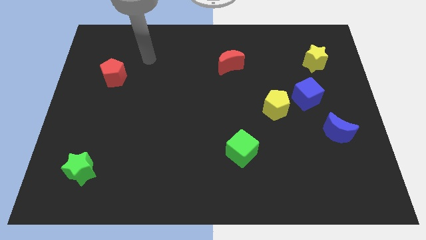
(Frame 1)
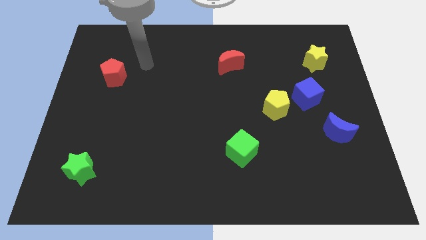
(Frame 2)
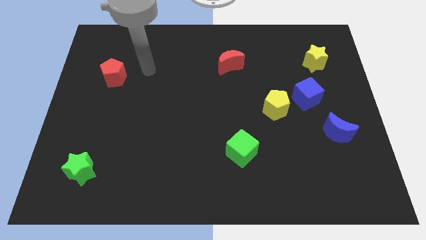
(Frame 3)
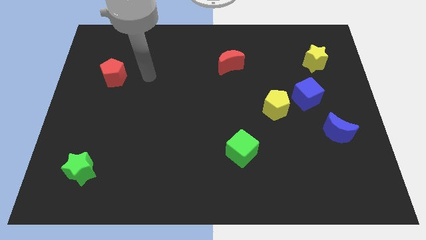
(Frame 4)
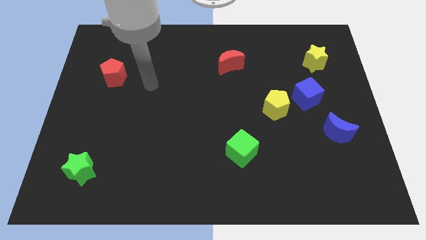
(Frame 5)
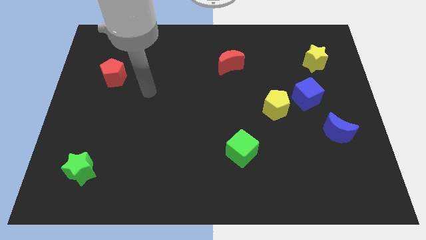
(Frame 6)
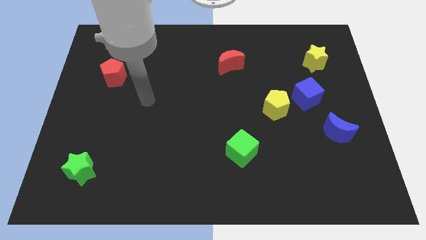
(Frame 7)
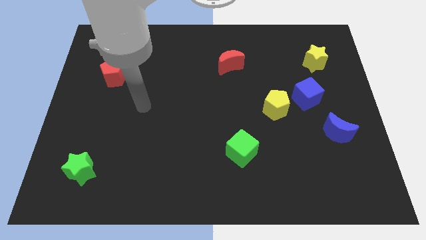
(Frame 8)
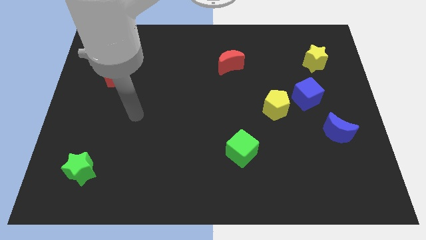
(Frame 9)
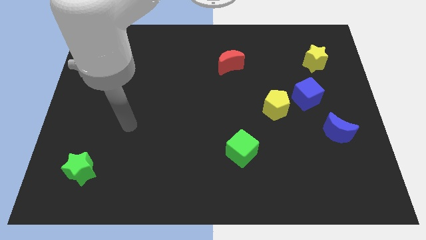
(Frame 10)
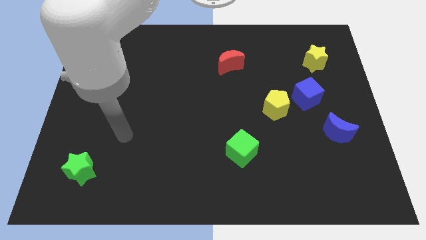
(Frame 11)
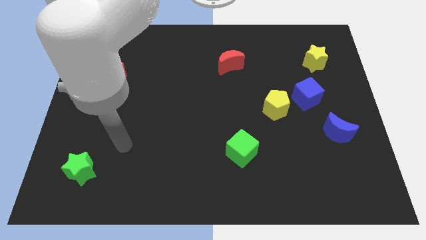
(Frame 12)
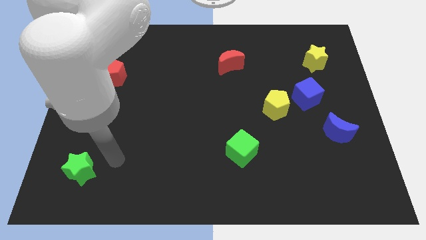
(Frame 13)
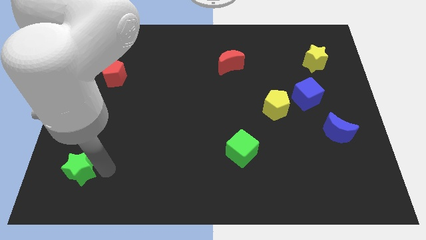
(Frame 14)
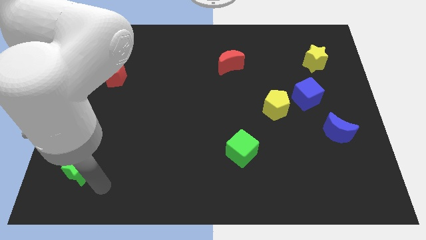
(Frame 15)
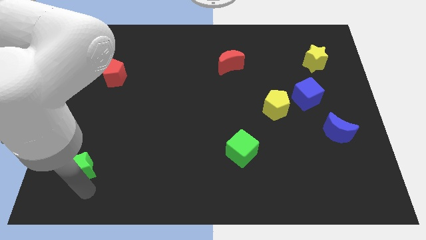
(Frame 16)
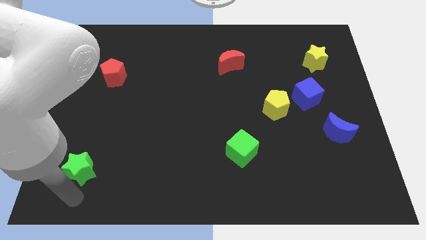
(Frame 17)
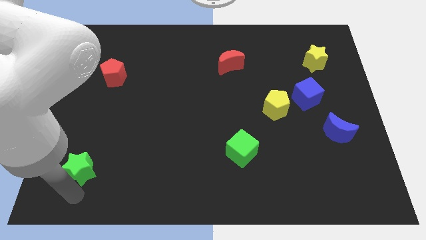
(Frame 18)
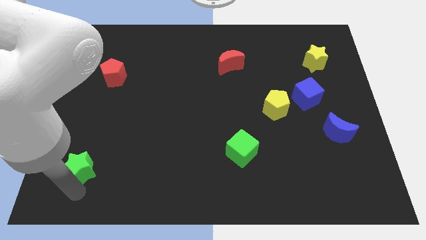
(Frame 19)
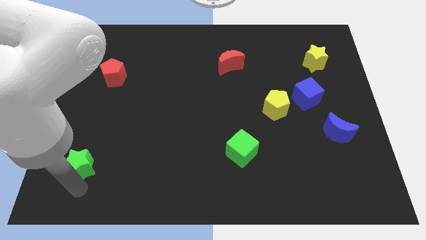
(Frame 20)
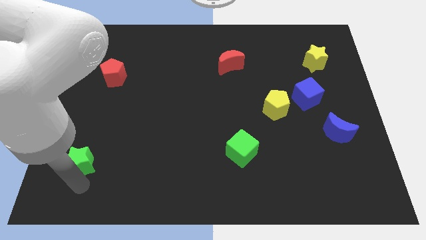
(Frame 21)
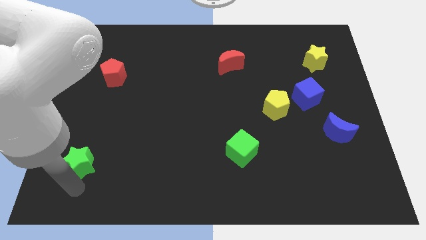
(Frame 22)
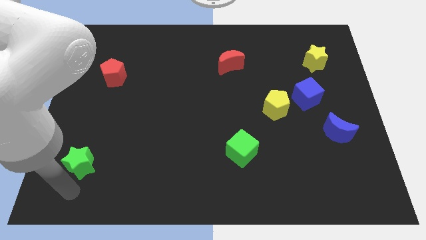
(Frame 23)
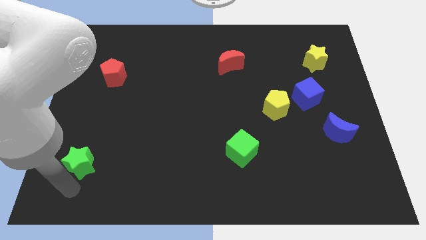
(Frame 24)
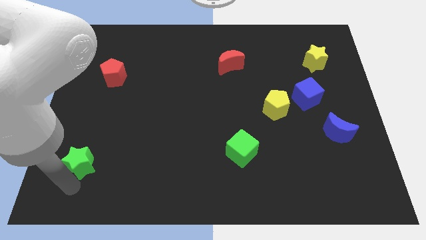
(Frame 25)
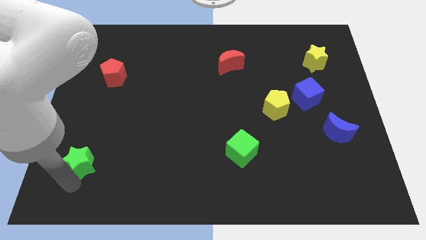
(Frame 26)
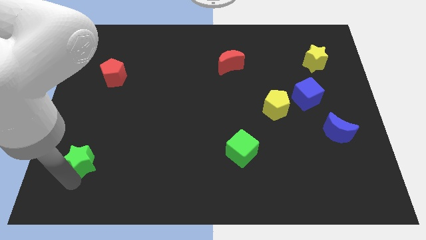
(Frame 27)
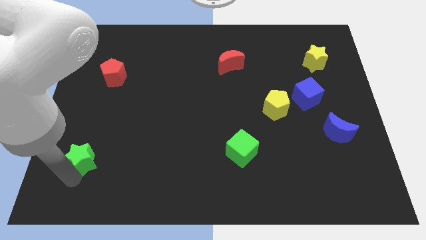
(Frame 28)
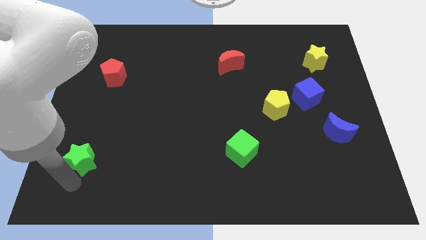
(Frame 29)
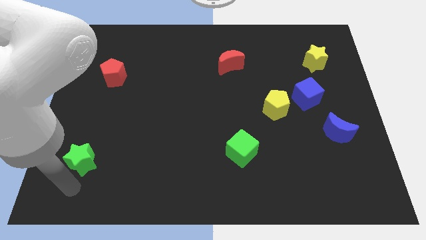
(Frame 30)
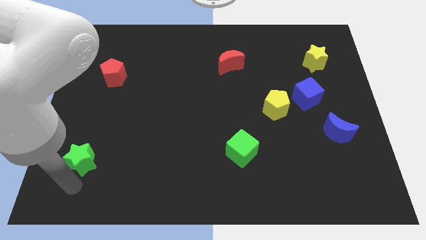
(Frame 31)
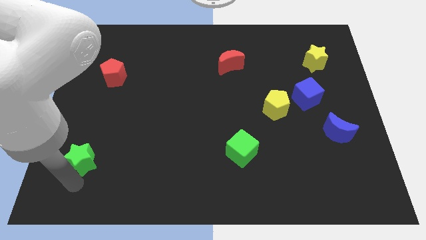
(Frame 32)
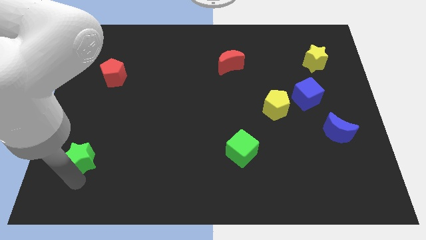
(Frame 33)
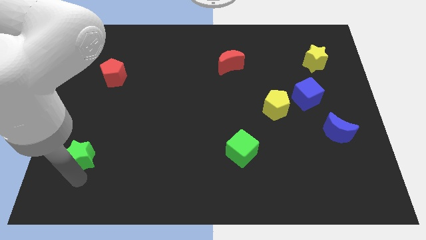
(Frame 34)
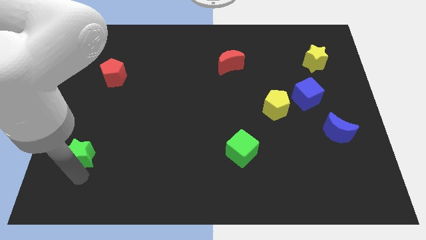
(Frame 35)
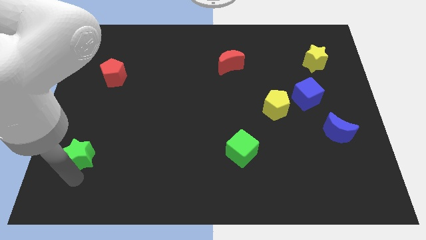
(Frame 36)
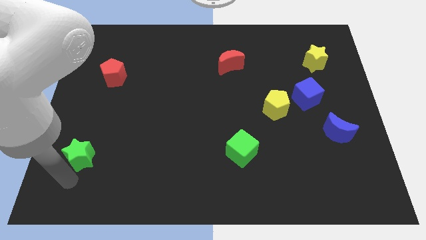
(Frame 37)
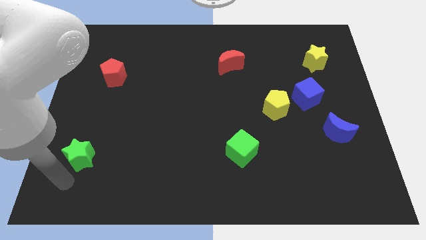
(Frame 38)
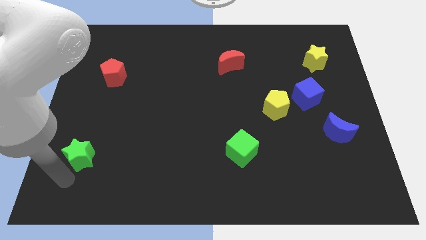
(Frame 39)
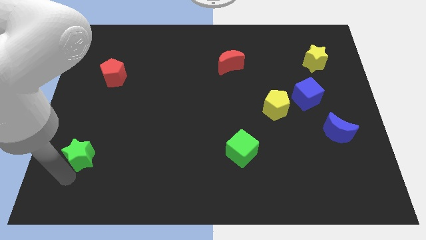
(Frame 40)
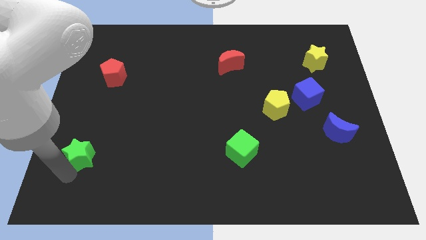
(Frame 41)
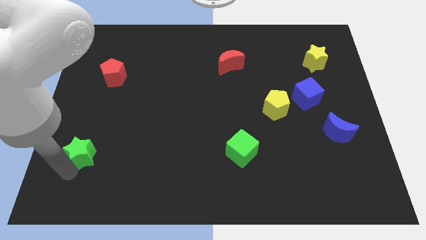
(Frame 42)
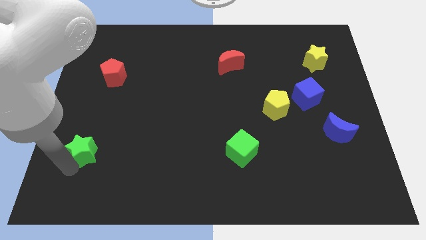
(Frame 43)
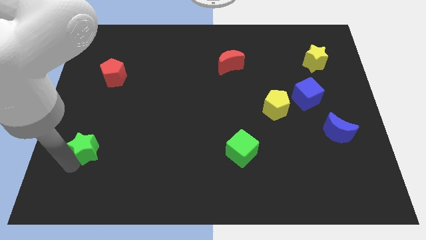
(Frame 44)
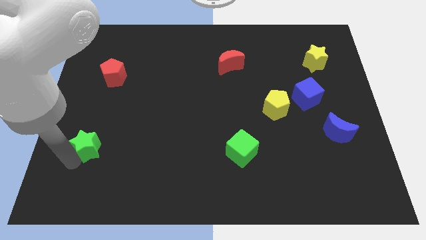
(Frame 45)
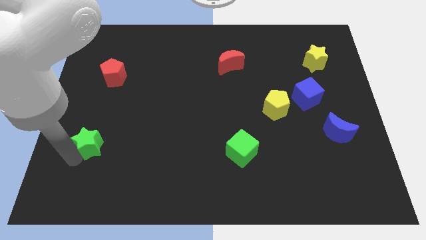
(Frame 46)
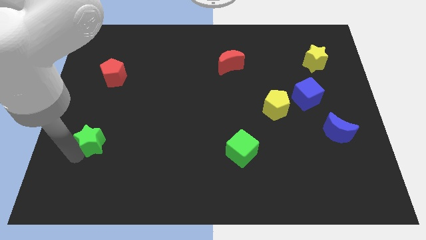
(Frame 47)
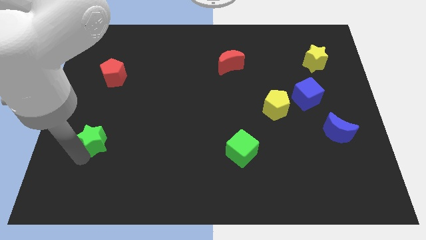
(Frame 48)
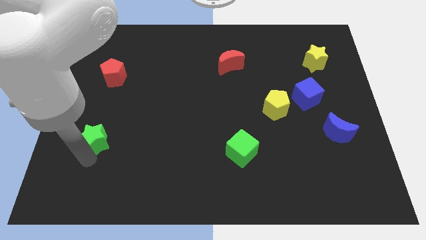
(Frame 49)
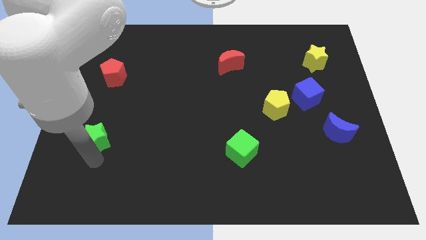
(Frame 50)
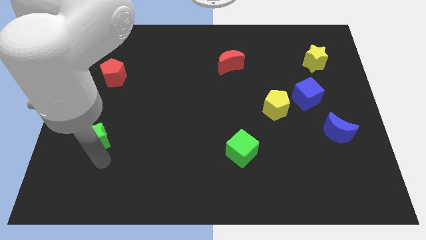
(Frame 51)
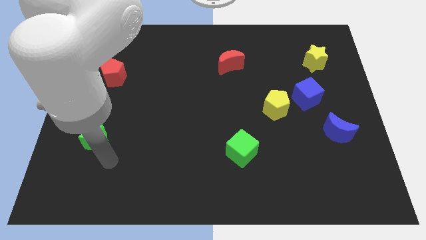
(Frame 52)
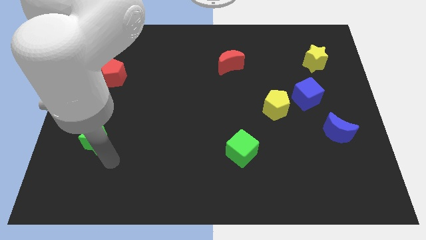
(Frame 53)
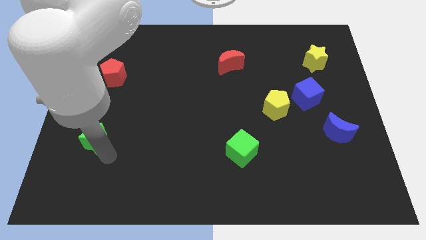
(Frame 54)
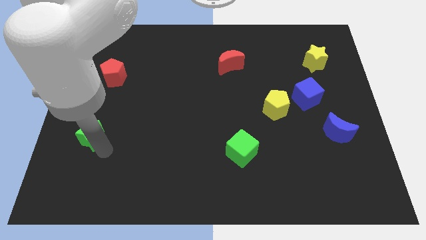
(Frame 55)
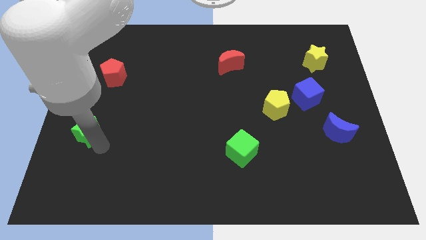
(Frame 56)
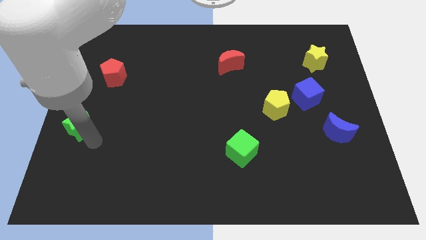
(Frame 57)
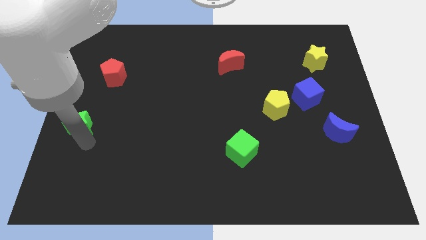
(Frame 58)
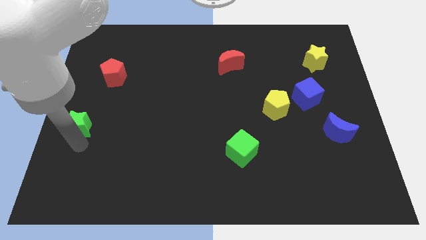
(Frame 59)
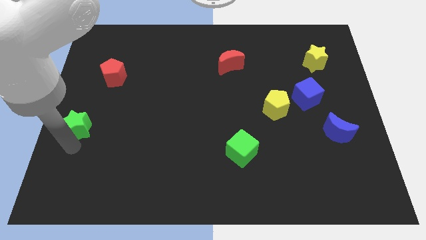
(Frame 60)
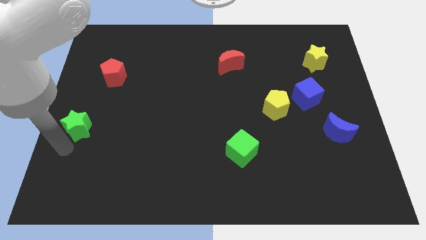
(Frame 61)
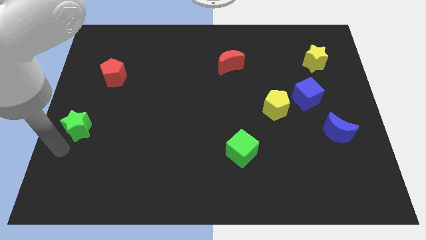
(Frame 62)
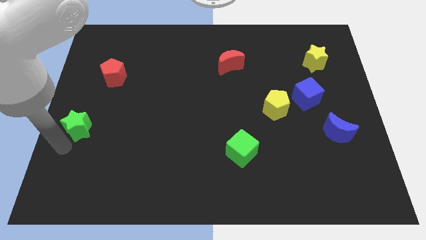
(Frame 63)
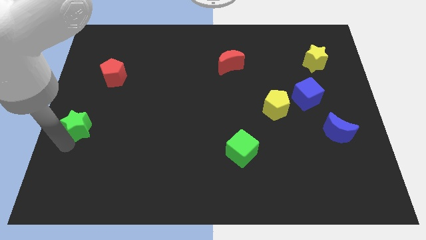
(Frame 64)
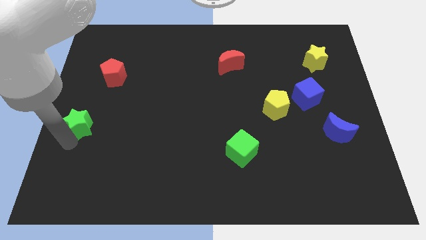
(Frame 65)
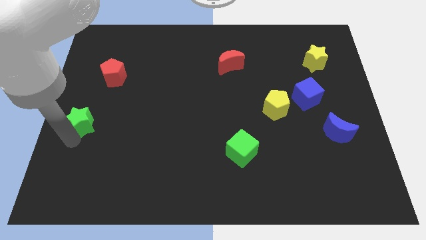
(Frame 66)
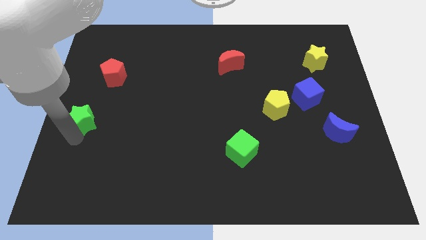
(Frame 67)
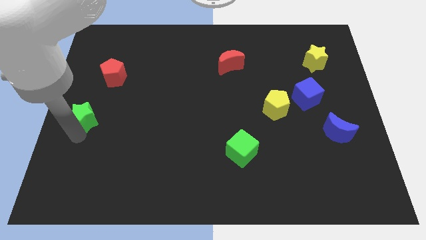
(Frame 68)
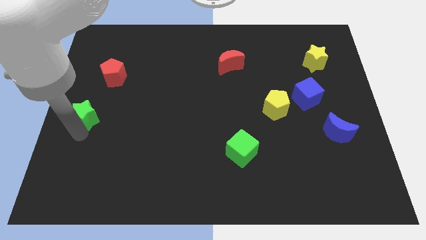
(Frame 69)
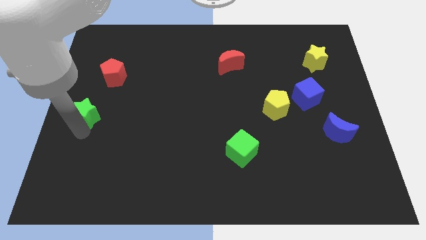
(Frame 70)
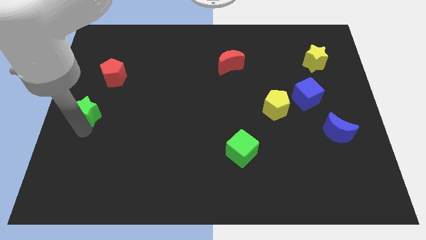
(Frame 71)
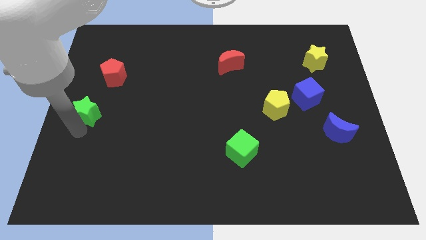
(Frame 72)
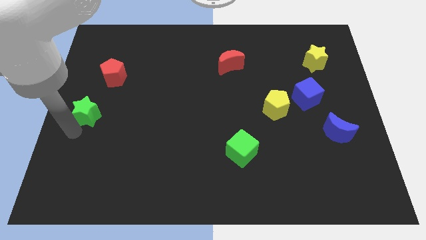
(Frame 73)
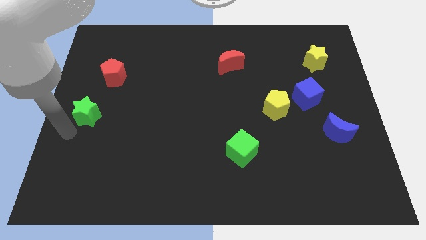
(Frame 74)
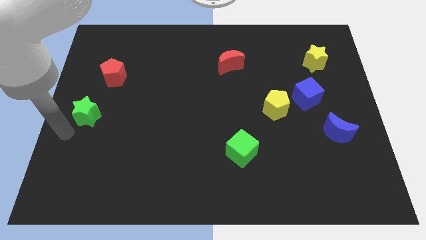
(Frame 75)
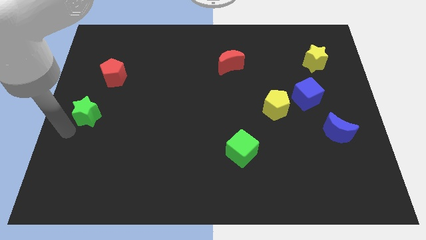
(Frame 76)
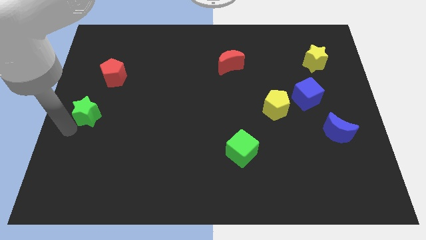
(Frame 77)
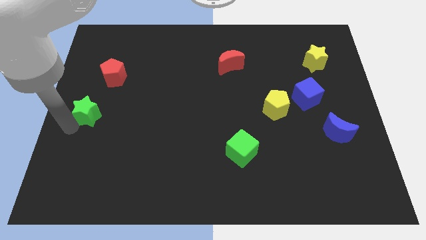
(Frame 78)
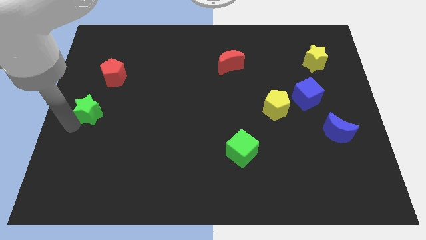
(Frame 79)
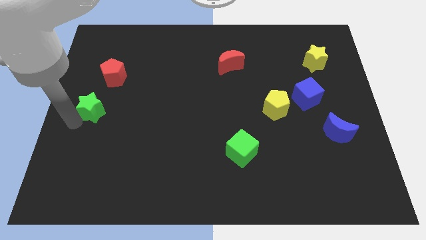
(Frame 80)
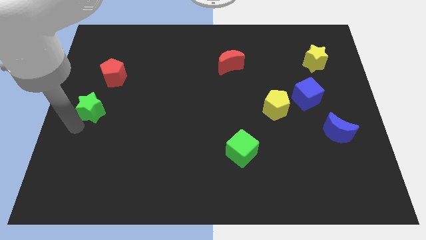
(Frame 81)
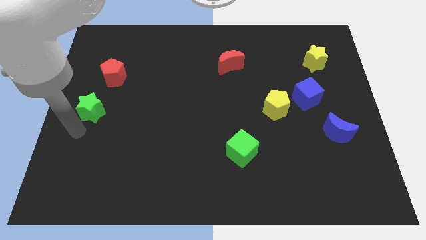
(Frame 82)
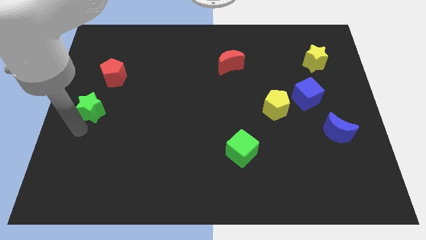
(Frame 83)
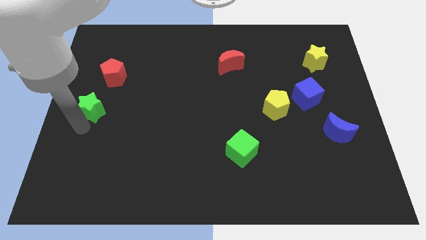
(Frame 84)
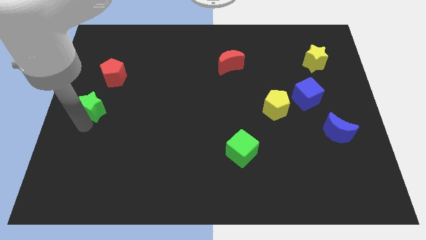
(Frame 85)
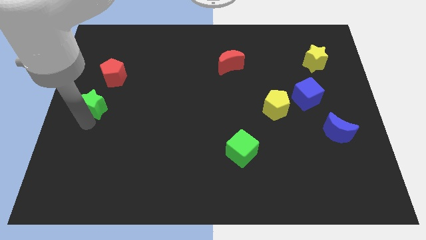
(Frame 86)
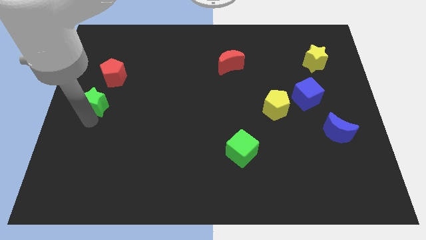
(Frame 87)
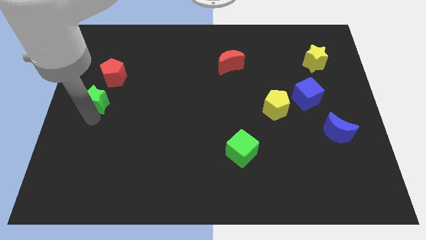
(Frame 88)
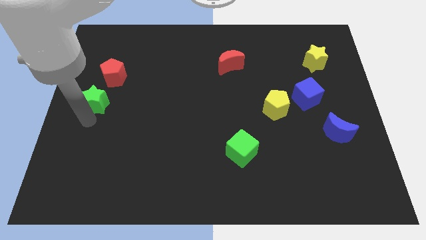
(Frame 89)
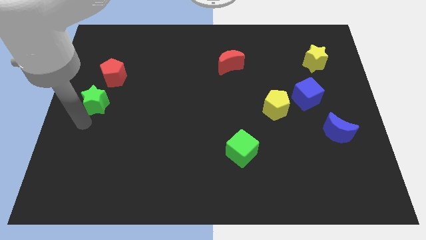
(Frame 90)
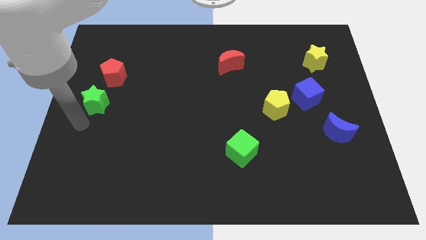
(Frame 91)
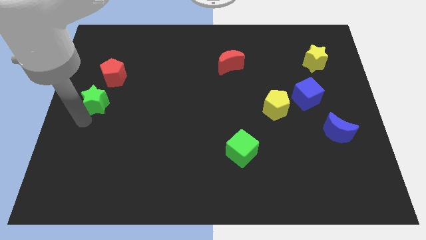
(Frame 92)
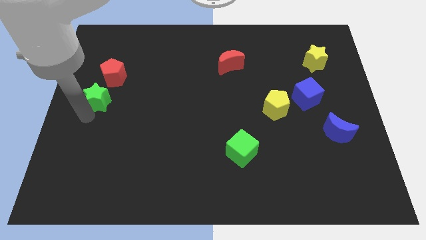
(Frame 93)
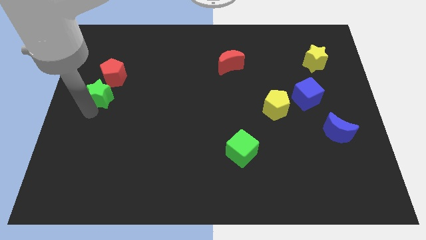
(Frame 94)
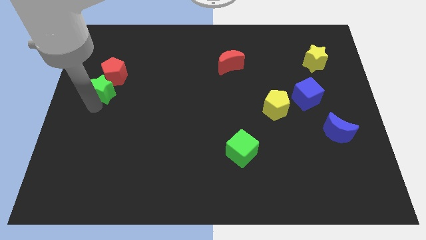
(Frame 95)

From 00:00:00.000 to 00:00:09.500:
slide the green star close to the red pentagon
